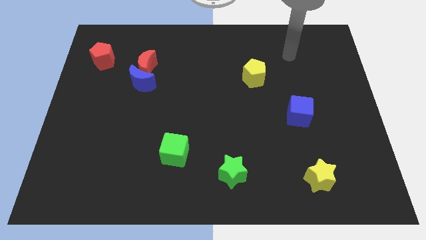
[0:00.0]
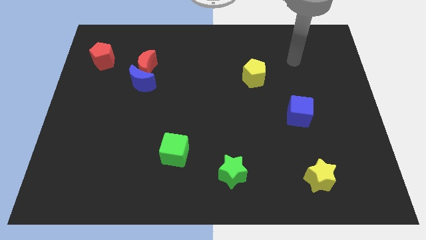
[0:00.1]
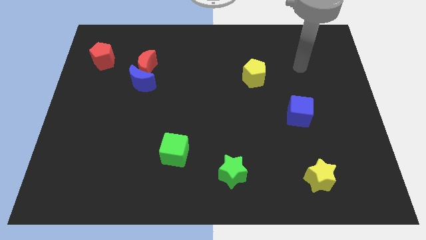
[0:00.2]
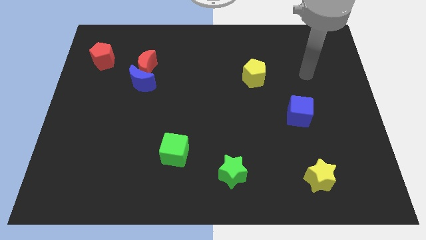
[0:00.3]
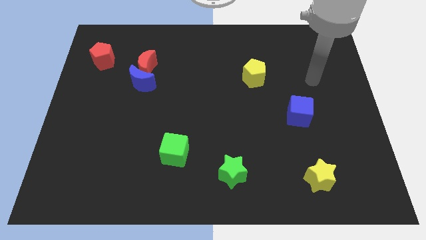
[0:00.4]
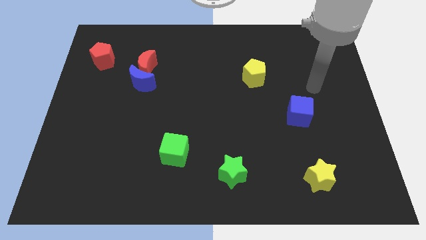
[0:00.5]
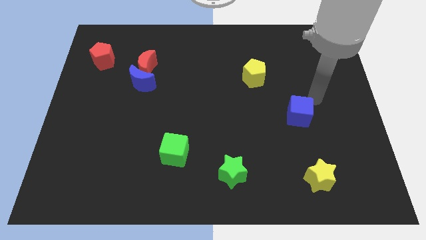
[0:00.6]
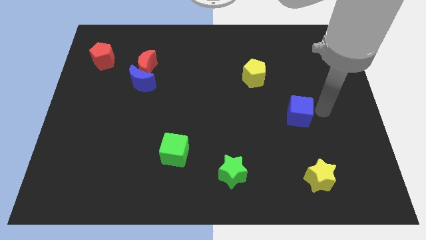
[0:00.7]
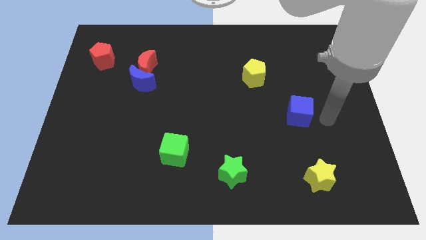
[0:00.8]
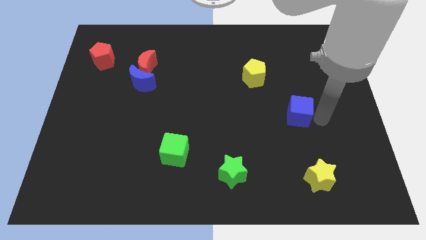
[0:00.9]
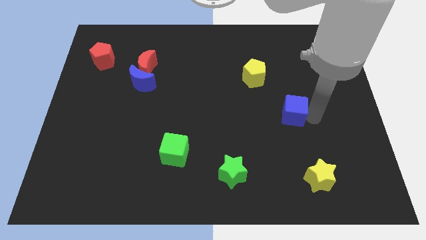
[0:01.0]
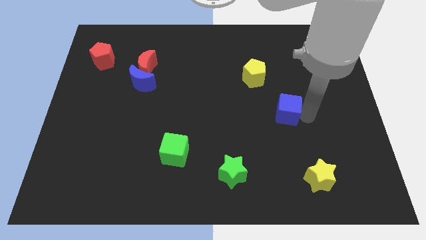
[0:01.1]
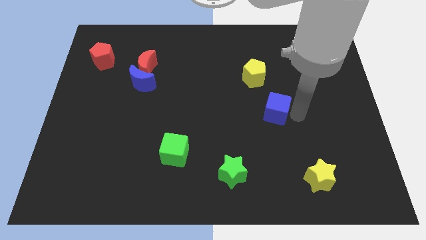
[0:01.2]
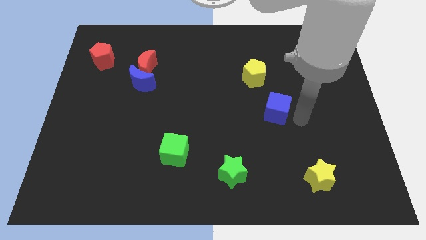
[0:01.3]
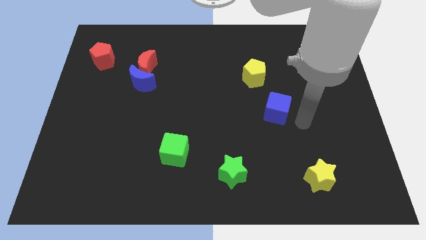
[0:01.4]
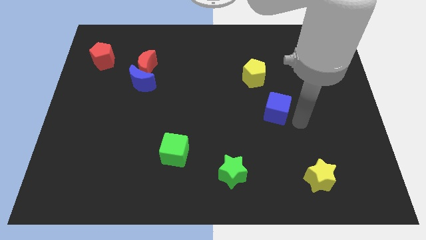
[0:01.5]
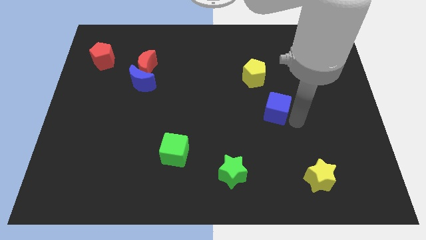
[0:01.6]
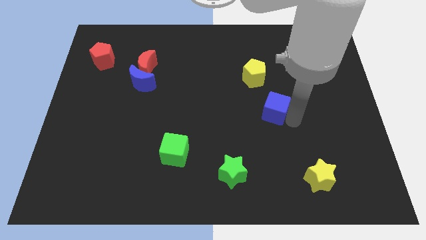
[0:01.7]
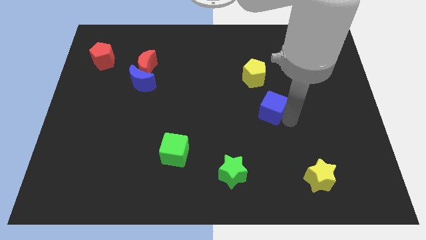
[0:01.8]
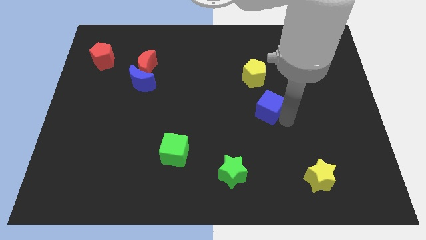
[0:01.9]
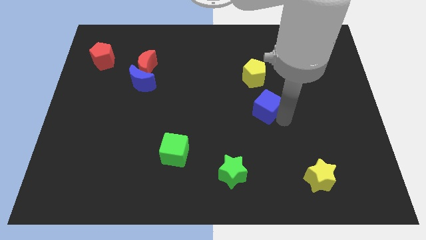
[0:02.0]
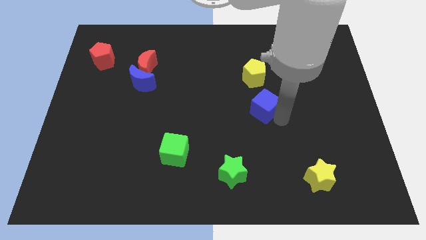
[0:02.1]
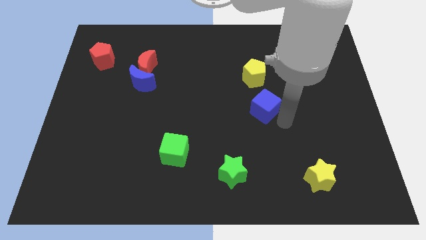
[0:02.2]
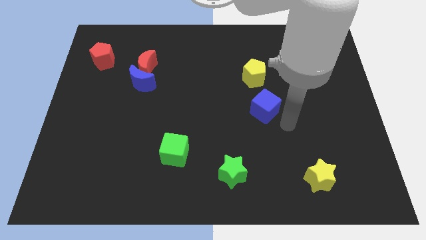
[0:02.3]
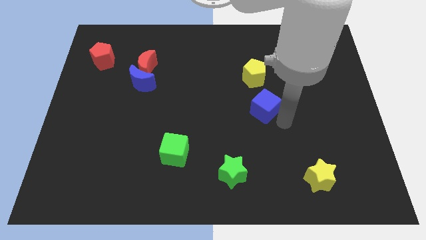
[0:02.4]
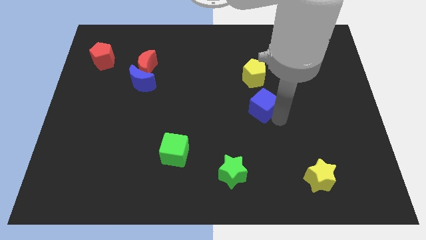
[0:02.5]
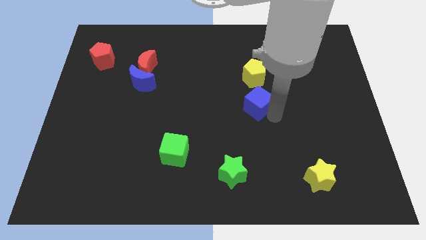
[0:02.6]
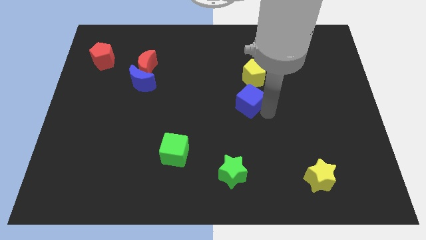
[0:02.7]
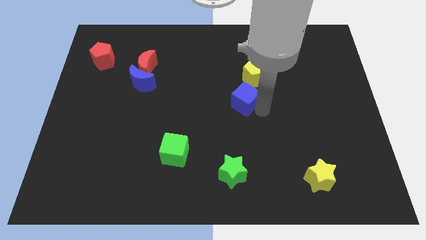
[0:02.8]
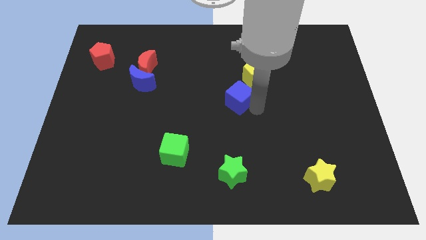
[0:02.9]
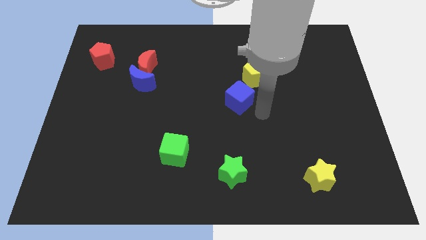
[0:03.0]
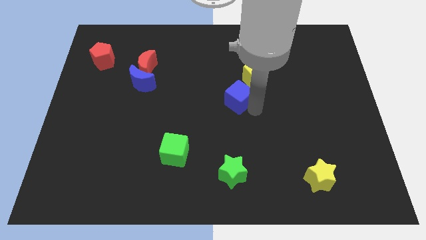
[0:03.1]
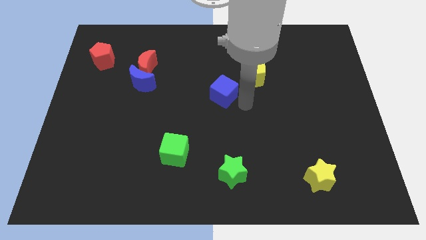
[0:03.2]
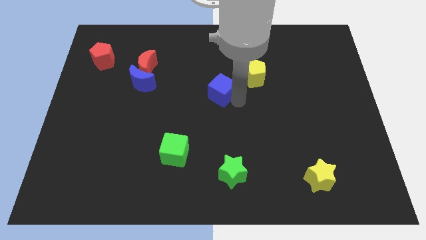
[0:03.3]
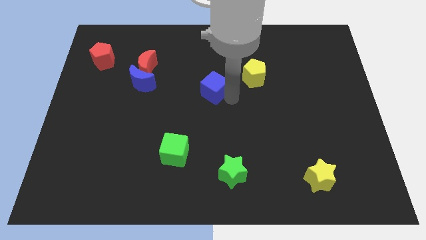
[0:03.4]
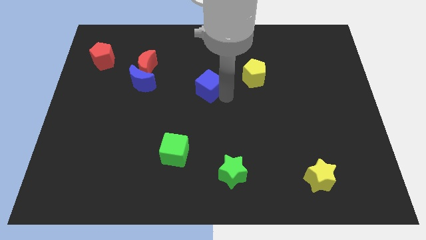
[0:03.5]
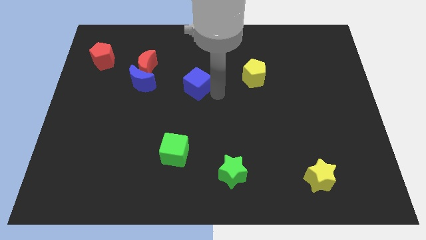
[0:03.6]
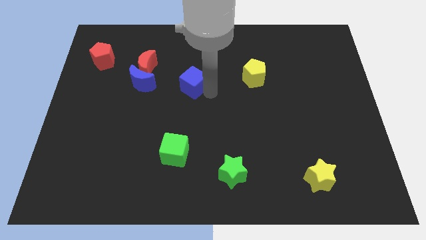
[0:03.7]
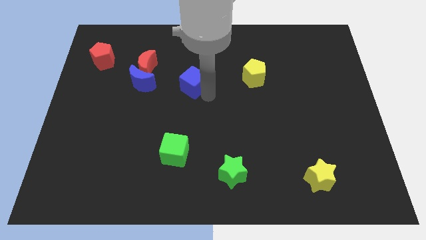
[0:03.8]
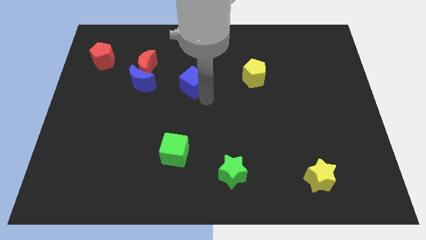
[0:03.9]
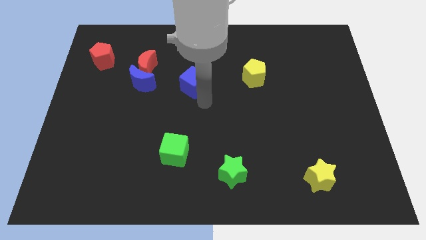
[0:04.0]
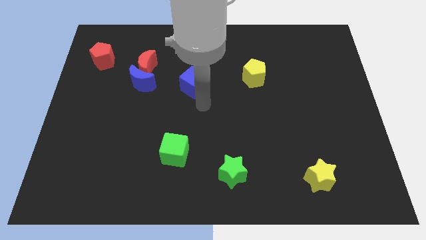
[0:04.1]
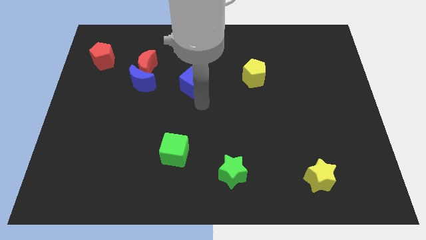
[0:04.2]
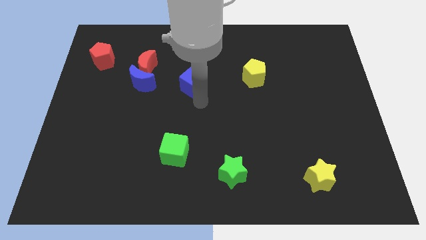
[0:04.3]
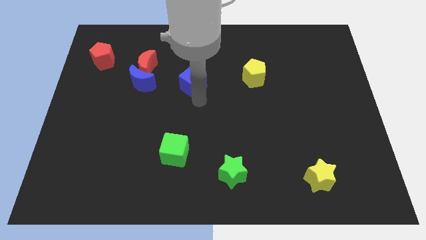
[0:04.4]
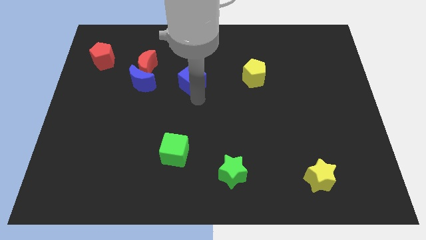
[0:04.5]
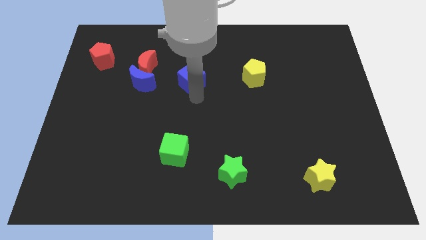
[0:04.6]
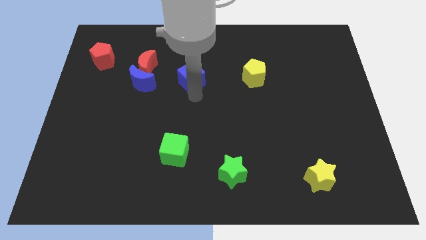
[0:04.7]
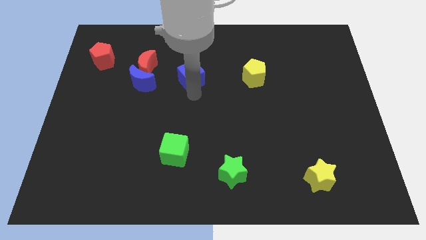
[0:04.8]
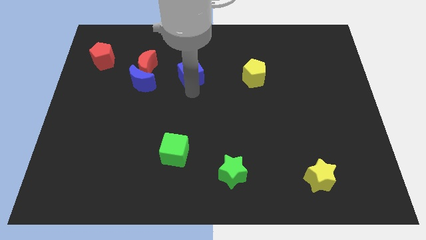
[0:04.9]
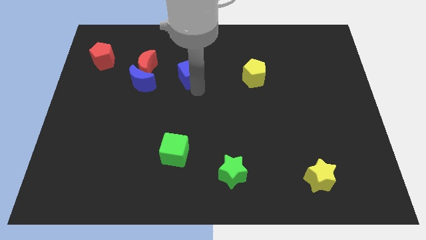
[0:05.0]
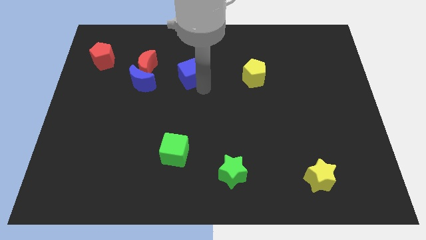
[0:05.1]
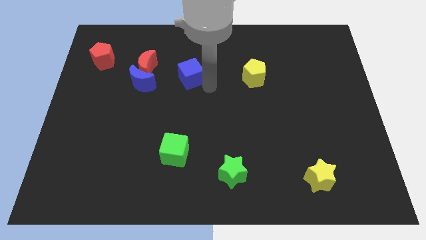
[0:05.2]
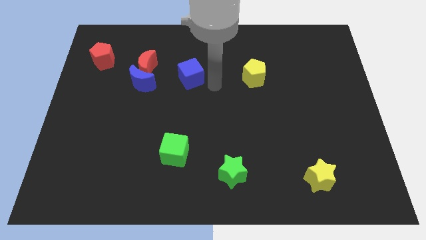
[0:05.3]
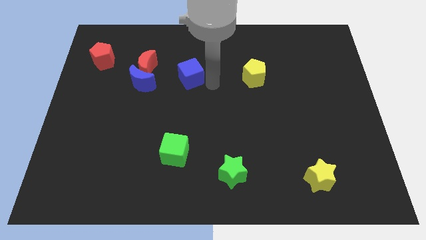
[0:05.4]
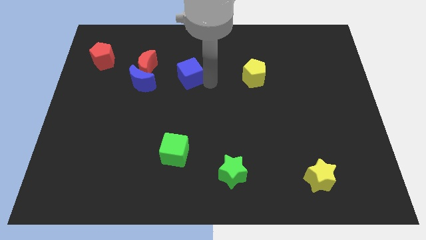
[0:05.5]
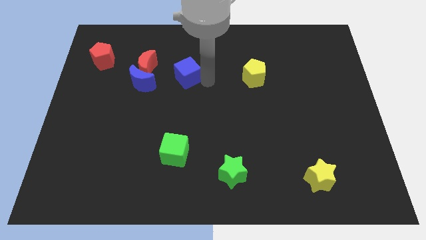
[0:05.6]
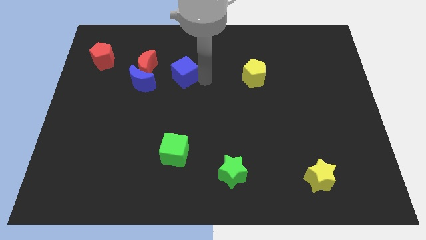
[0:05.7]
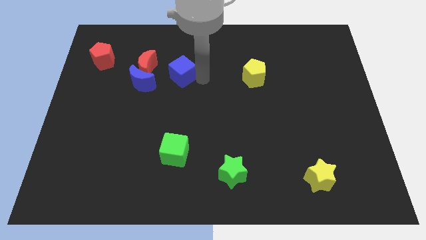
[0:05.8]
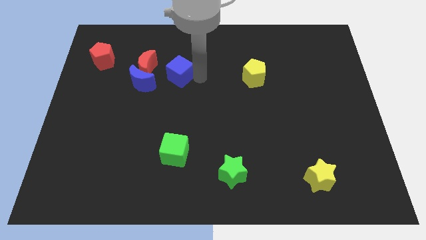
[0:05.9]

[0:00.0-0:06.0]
push the blue cube diagonally up and to the right of the blue moon

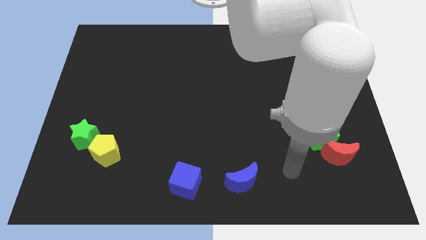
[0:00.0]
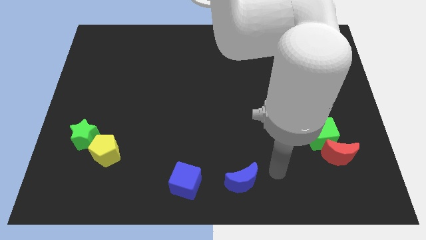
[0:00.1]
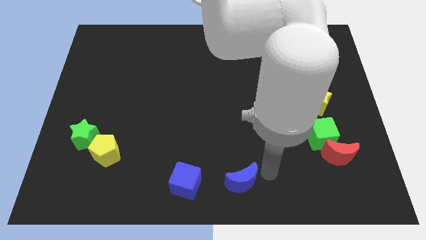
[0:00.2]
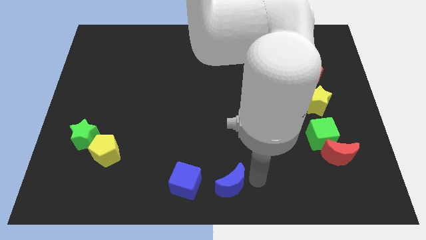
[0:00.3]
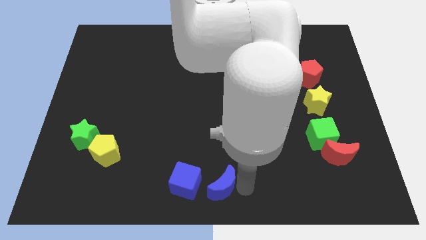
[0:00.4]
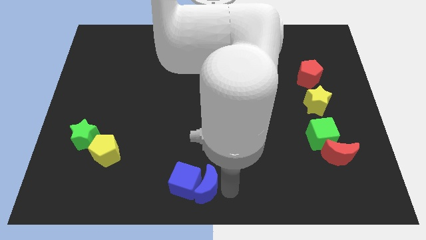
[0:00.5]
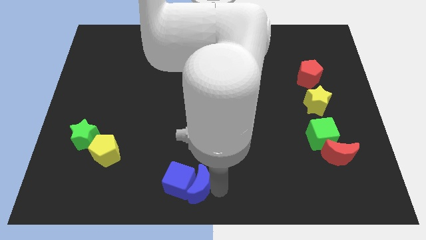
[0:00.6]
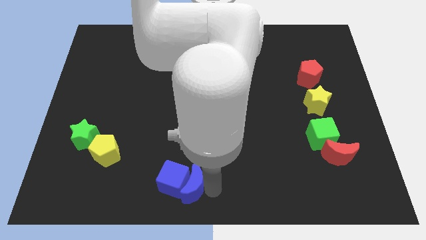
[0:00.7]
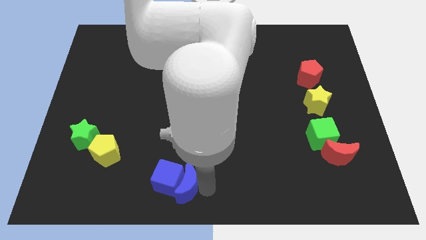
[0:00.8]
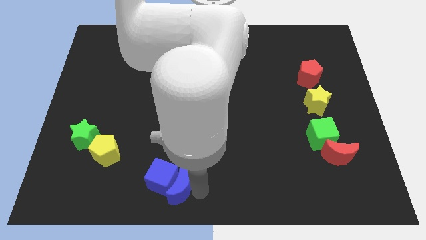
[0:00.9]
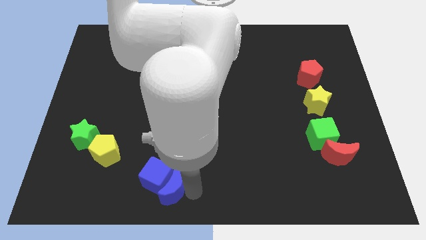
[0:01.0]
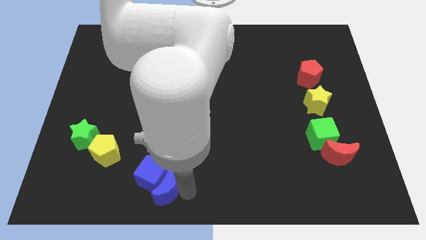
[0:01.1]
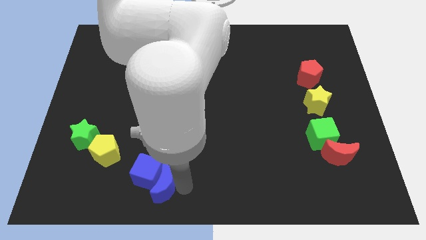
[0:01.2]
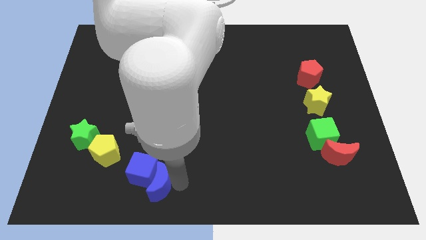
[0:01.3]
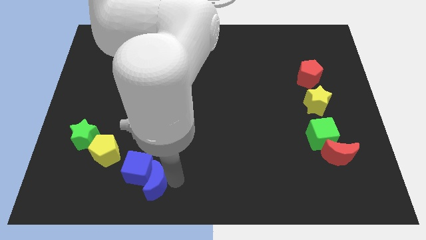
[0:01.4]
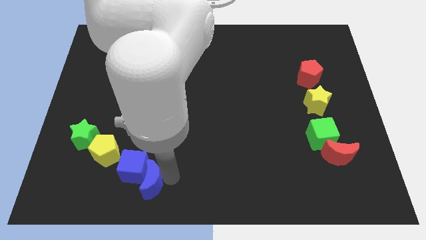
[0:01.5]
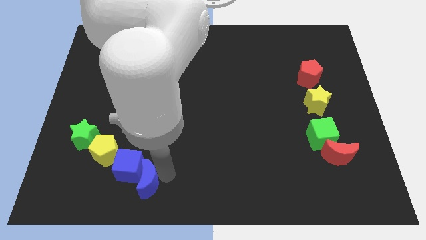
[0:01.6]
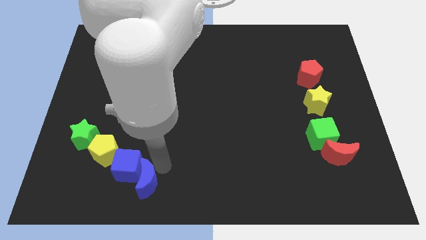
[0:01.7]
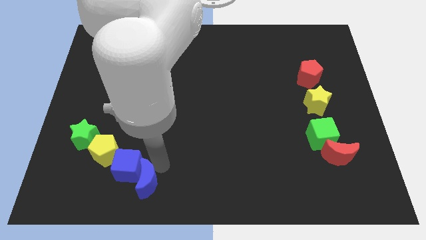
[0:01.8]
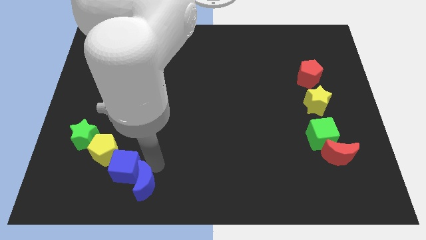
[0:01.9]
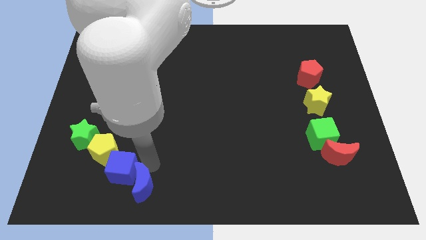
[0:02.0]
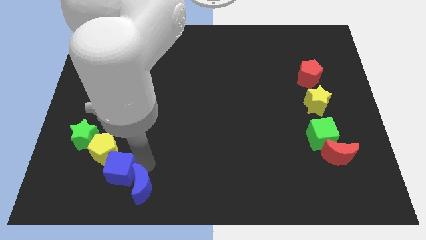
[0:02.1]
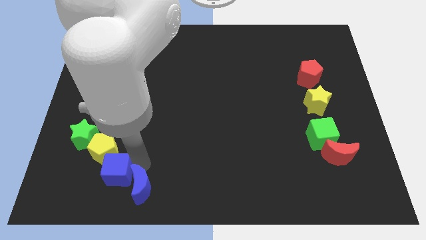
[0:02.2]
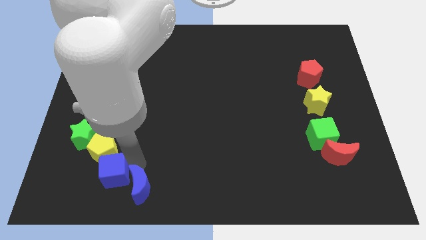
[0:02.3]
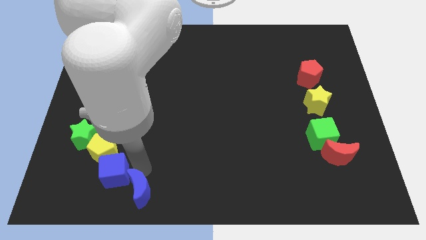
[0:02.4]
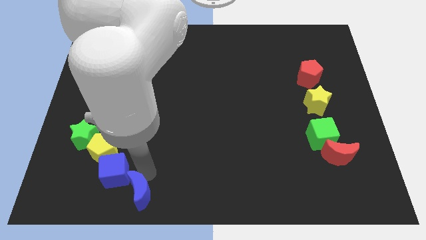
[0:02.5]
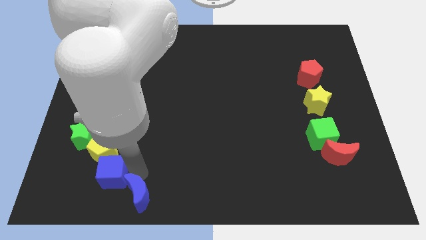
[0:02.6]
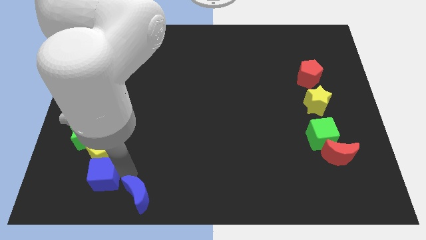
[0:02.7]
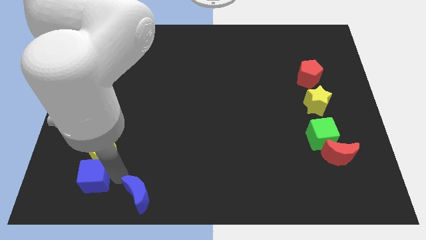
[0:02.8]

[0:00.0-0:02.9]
put the blue cube to the bottom left of the yellow pentagon
